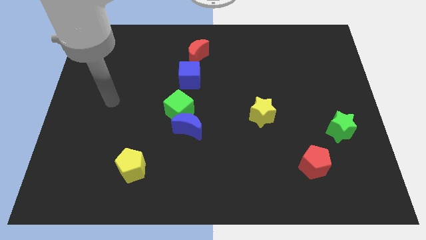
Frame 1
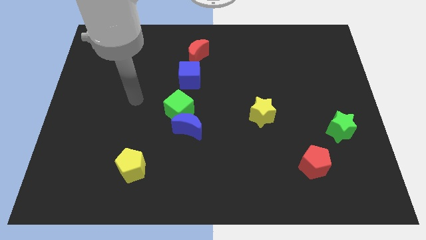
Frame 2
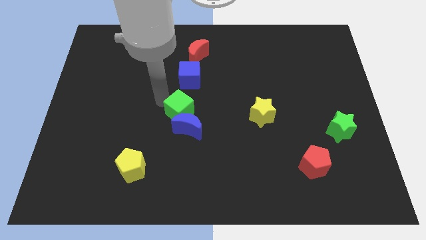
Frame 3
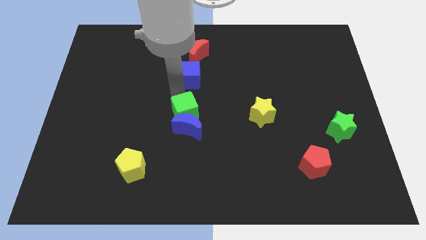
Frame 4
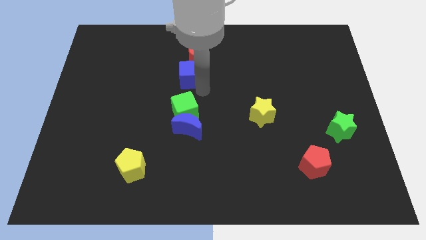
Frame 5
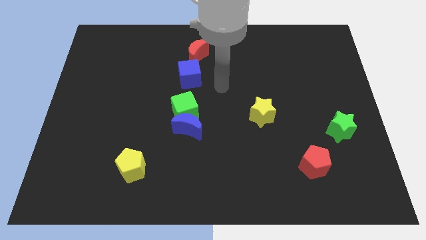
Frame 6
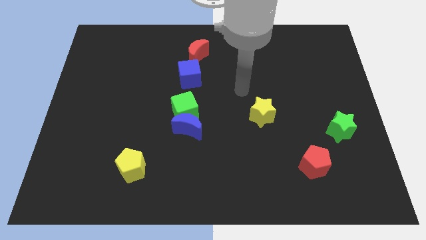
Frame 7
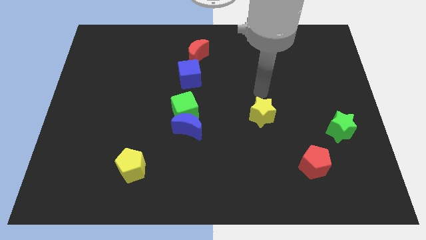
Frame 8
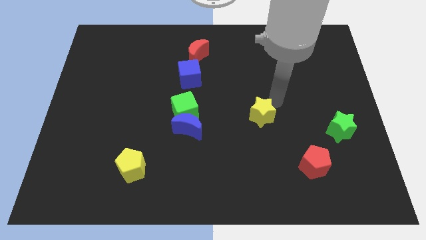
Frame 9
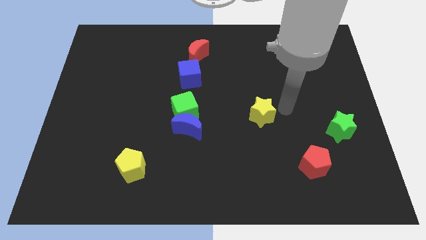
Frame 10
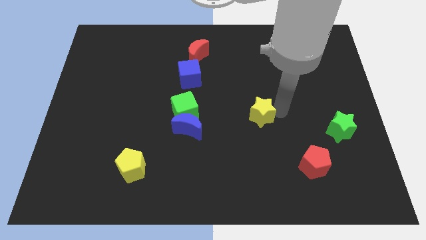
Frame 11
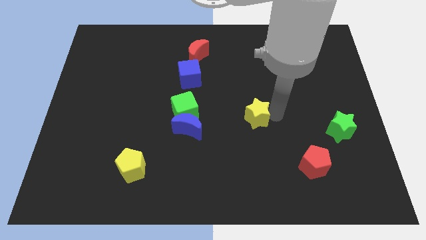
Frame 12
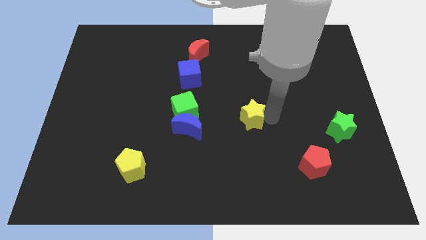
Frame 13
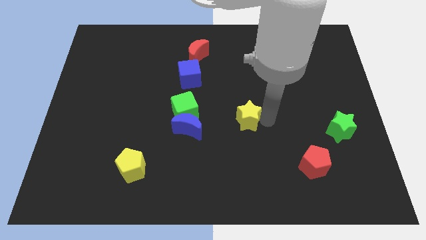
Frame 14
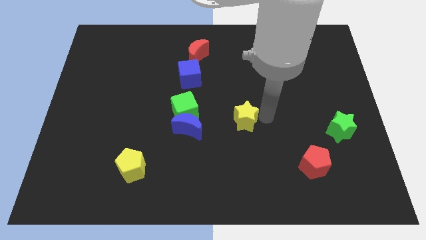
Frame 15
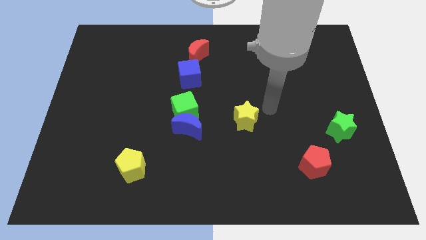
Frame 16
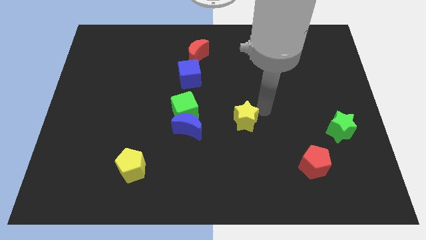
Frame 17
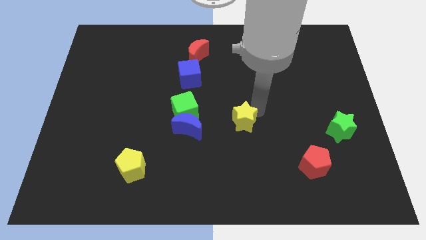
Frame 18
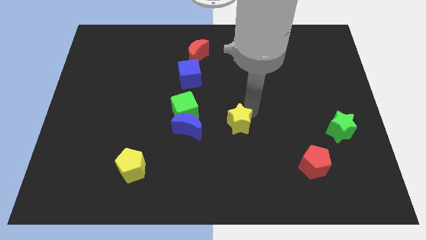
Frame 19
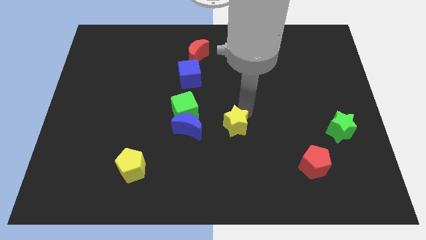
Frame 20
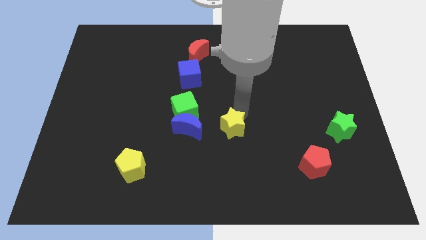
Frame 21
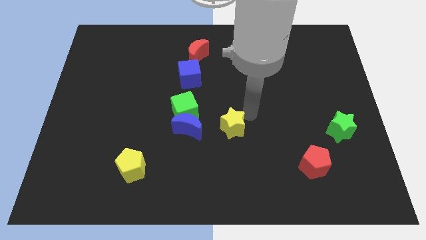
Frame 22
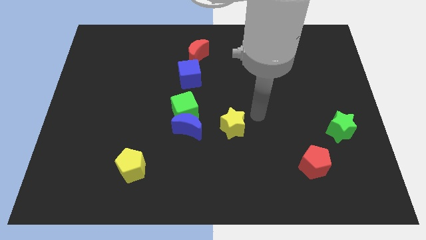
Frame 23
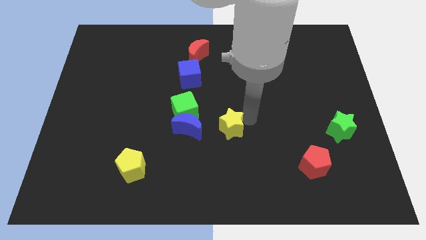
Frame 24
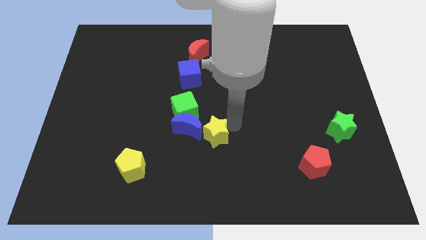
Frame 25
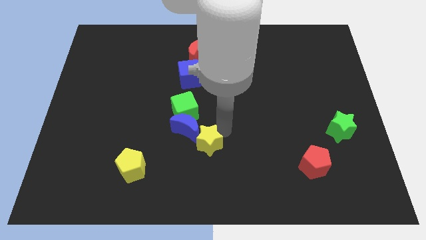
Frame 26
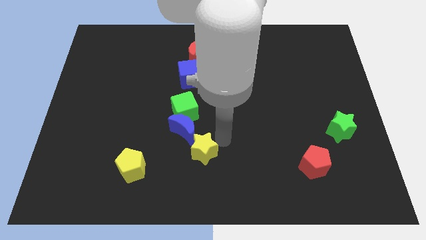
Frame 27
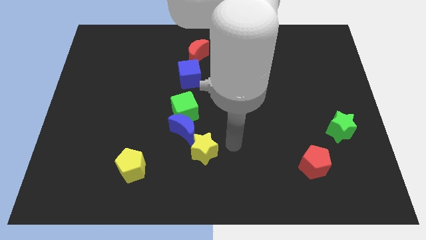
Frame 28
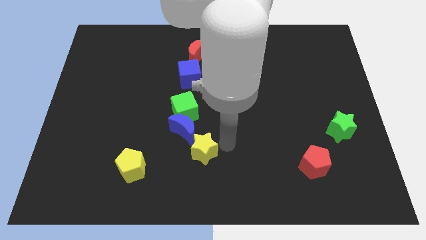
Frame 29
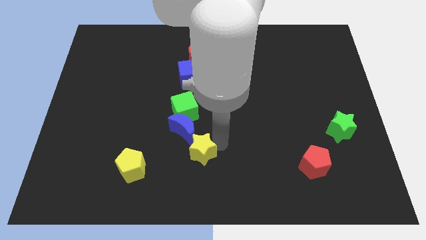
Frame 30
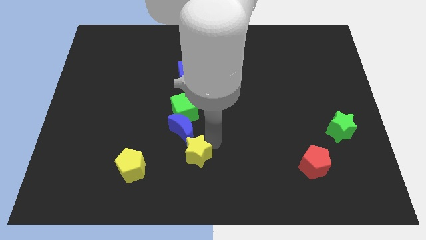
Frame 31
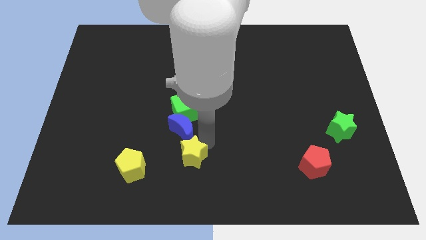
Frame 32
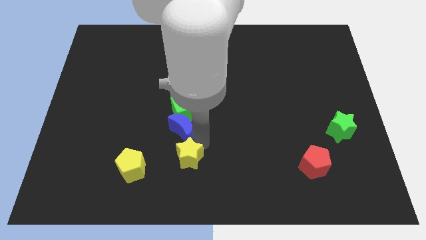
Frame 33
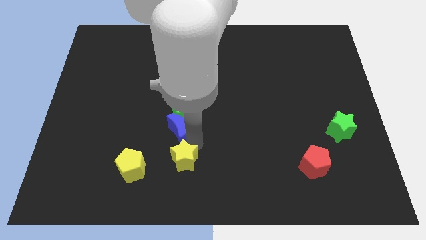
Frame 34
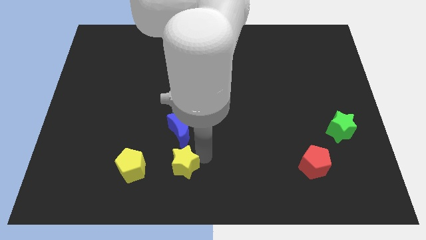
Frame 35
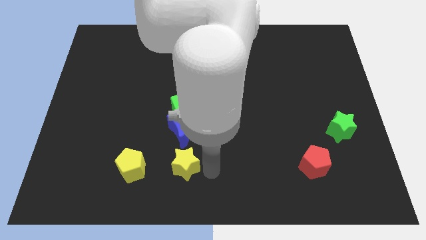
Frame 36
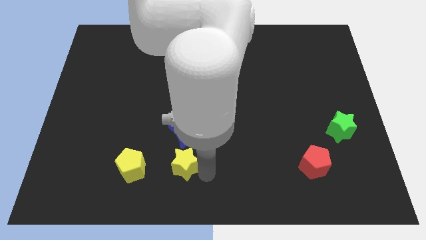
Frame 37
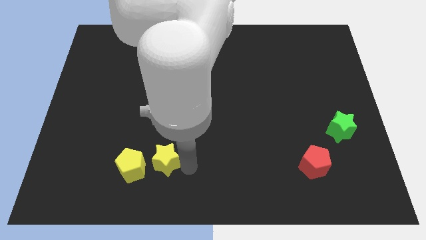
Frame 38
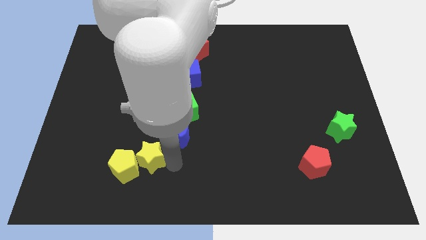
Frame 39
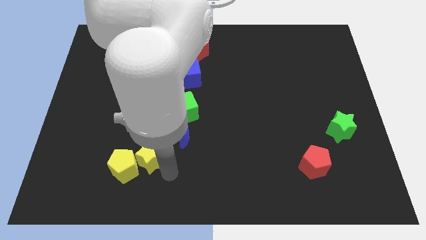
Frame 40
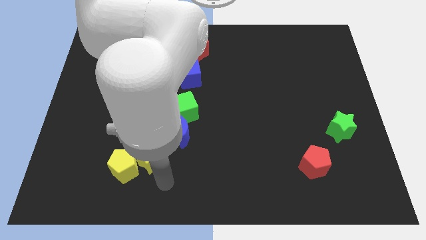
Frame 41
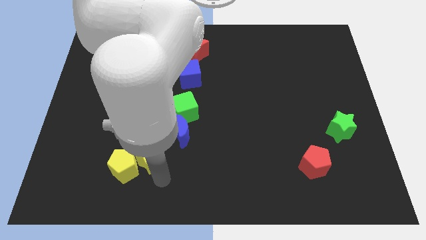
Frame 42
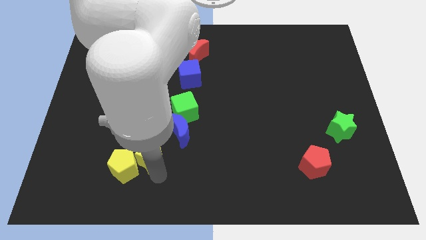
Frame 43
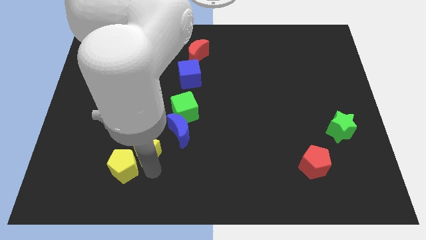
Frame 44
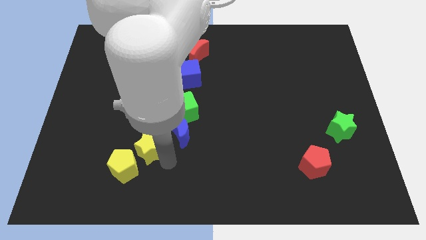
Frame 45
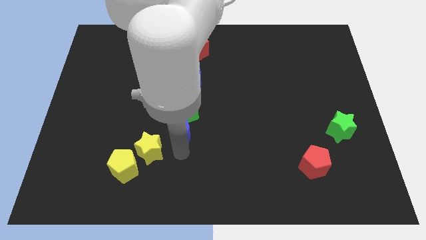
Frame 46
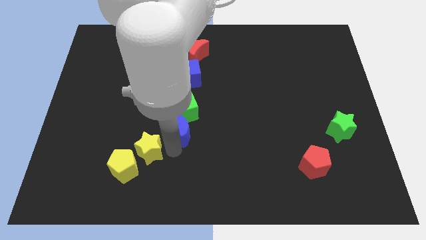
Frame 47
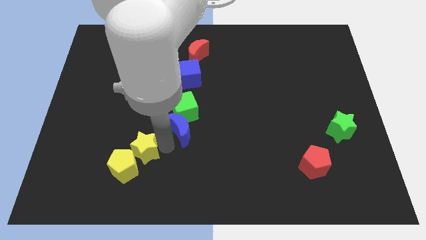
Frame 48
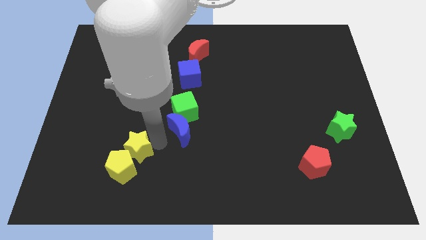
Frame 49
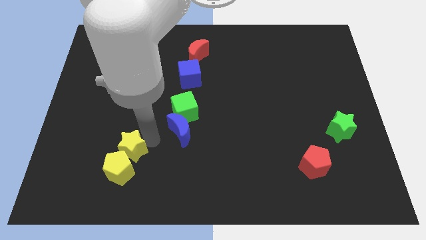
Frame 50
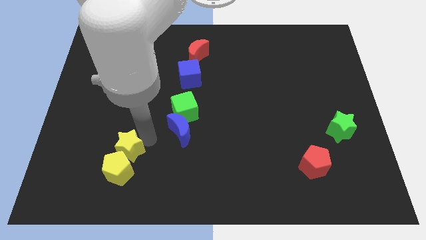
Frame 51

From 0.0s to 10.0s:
put the yellow star to the top left side of the yellow pentagon

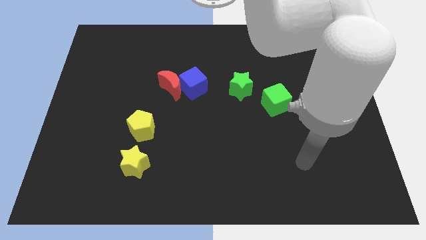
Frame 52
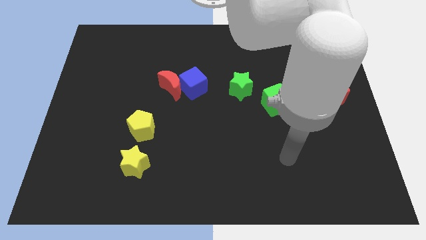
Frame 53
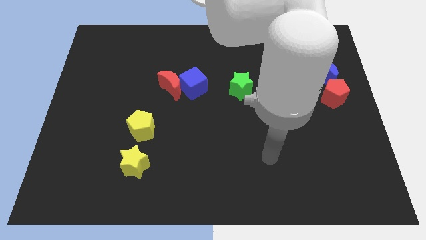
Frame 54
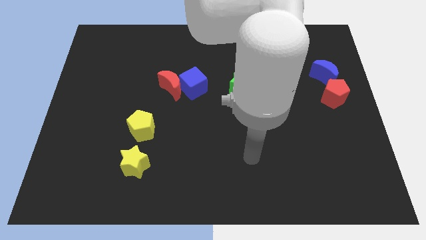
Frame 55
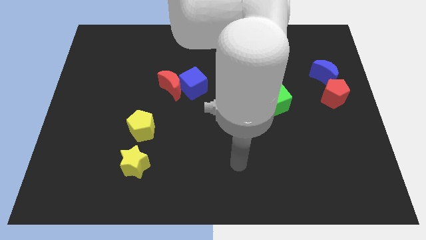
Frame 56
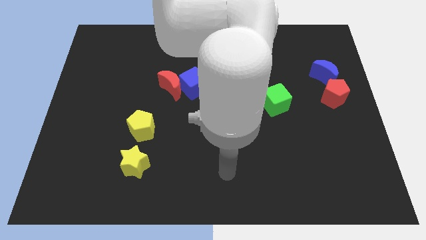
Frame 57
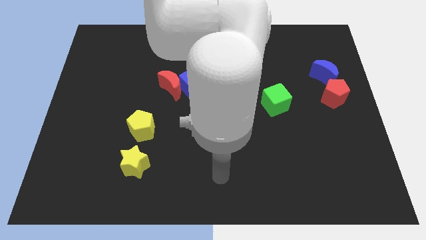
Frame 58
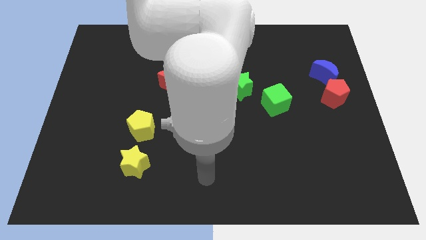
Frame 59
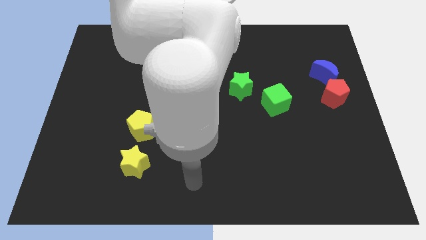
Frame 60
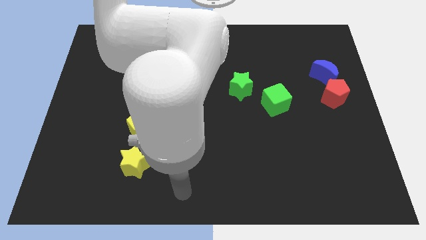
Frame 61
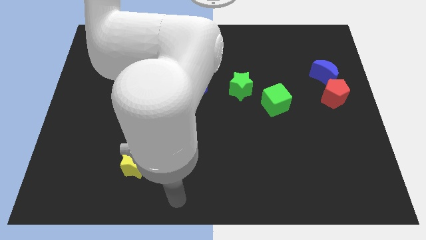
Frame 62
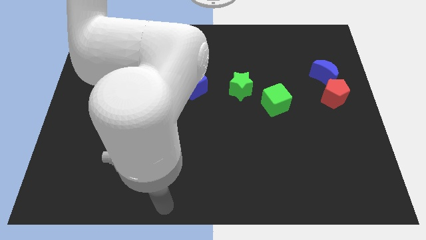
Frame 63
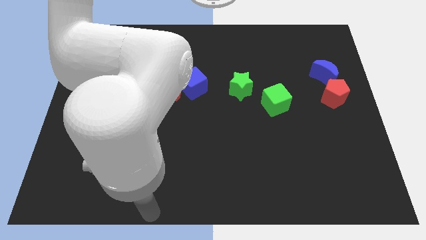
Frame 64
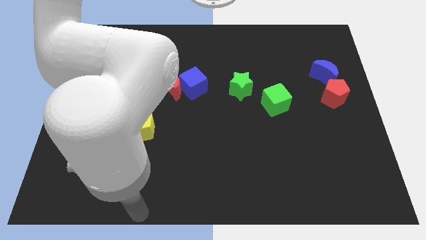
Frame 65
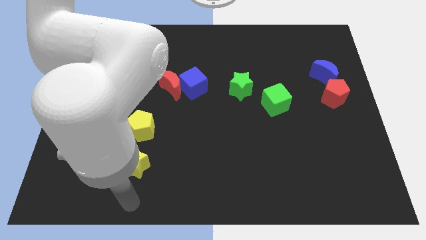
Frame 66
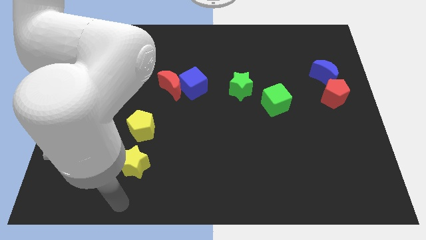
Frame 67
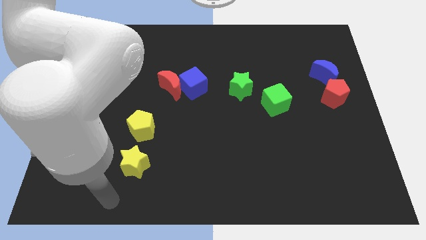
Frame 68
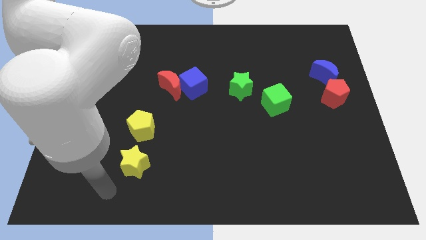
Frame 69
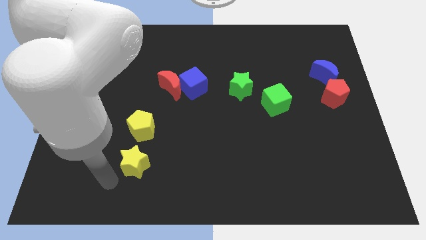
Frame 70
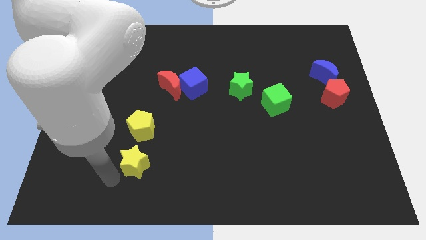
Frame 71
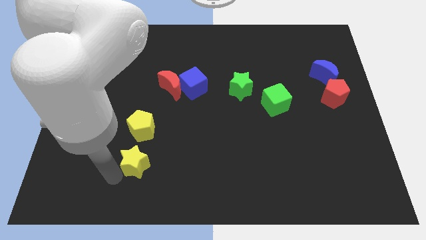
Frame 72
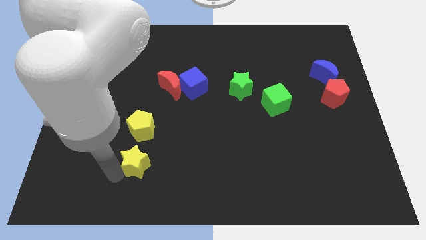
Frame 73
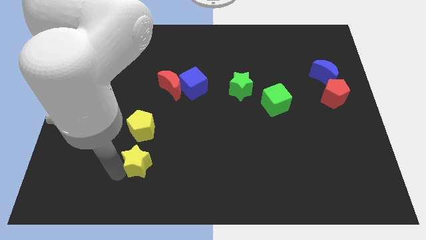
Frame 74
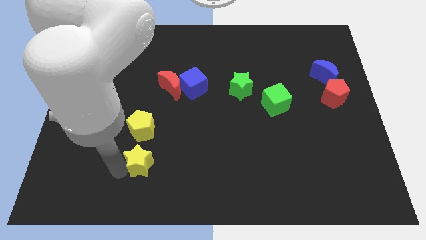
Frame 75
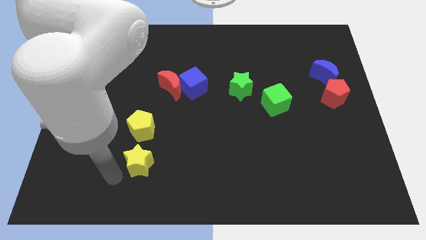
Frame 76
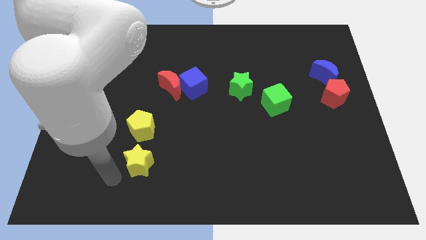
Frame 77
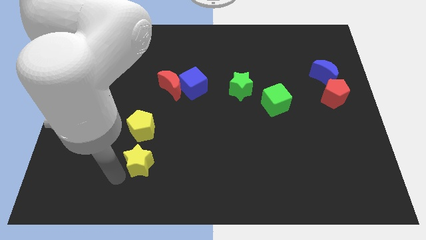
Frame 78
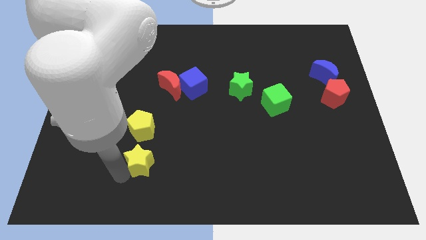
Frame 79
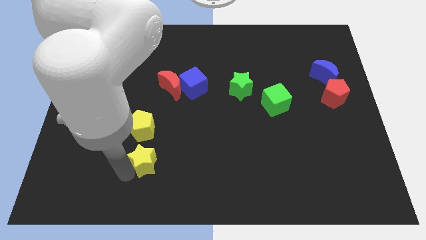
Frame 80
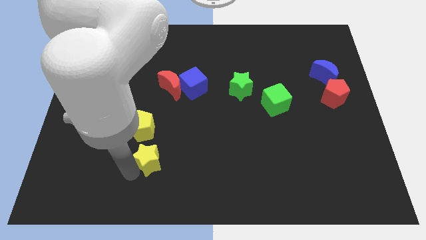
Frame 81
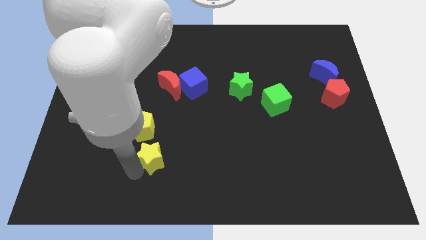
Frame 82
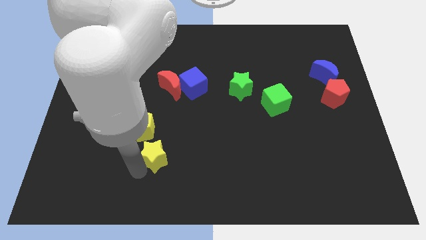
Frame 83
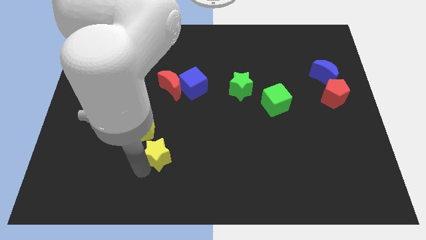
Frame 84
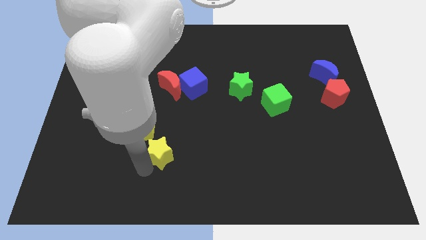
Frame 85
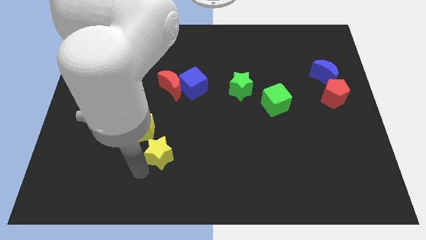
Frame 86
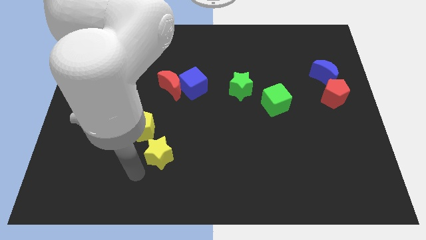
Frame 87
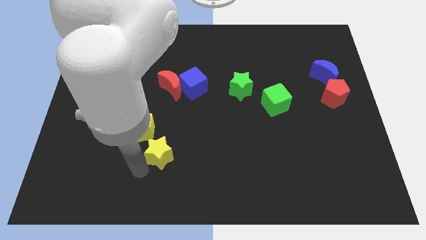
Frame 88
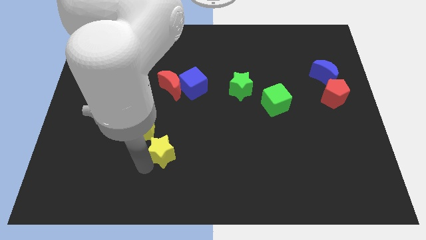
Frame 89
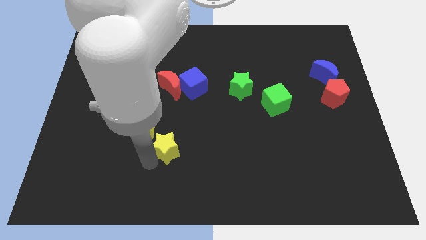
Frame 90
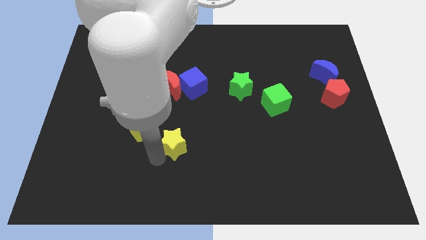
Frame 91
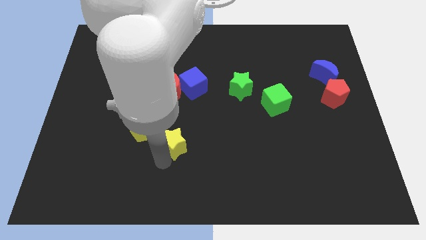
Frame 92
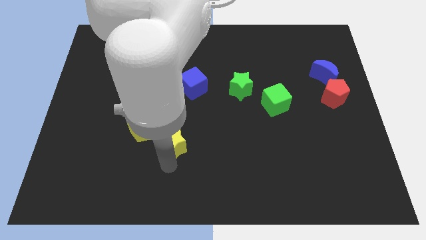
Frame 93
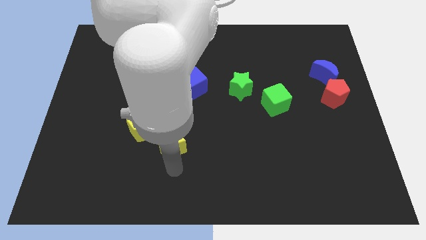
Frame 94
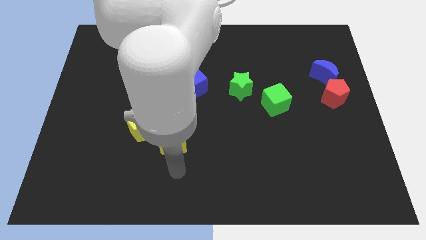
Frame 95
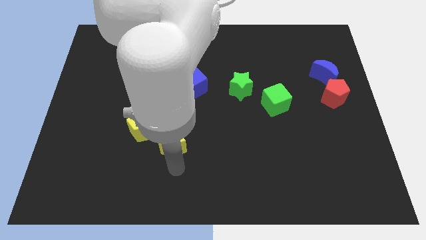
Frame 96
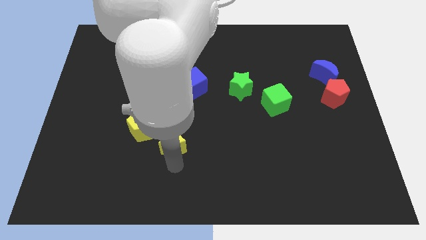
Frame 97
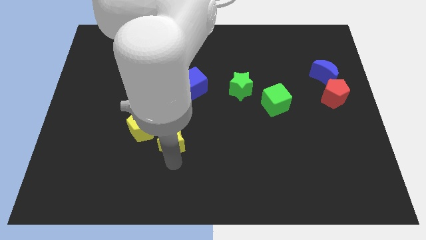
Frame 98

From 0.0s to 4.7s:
slide the yellow star to the bottom of the red moon
